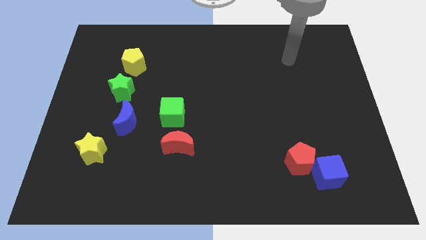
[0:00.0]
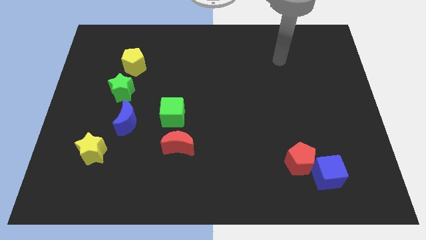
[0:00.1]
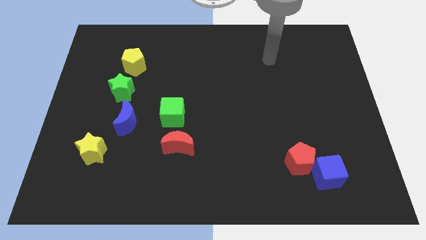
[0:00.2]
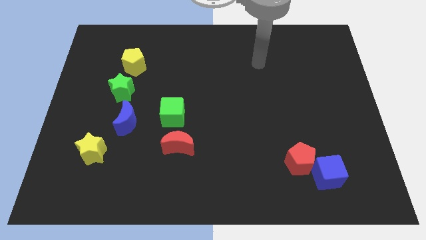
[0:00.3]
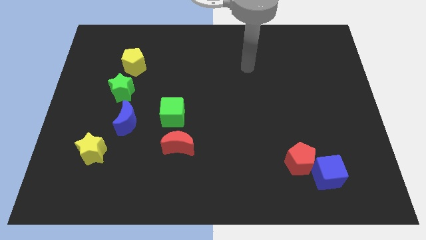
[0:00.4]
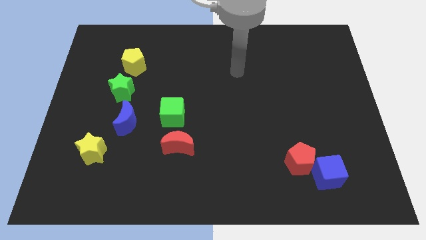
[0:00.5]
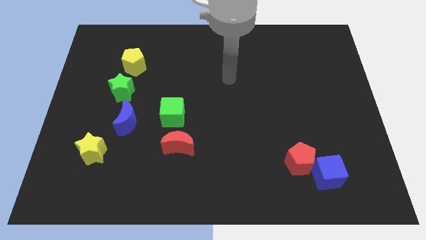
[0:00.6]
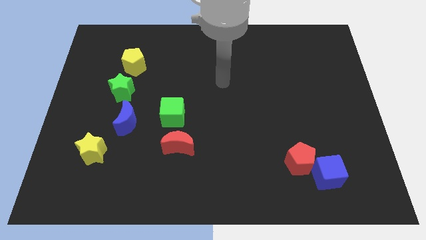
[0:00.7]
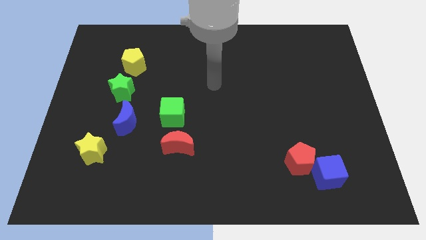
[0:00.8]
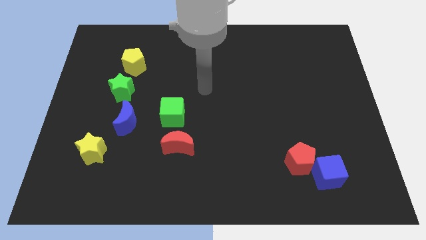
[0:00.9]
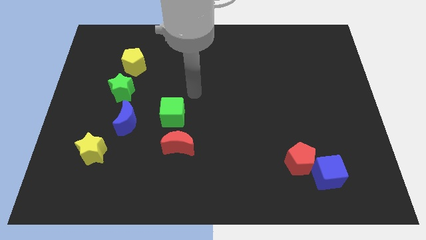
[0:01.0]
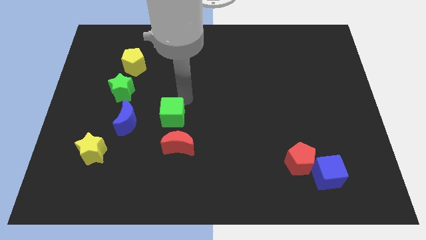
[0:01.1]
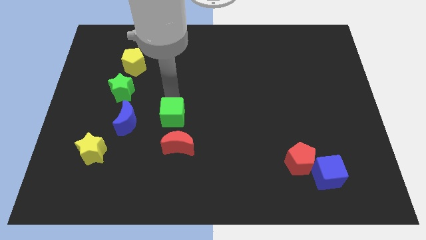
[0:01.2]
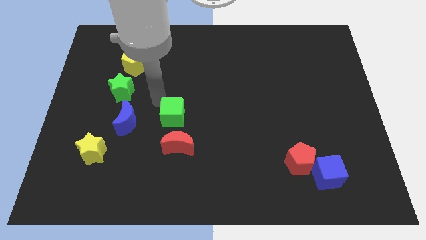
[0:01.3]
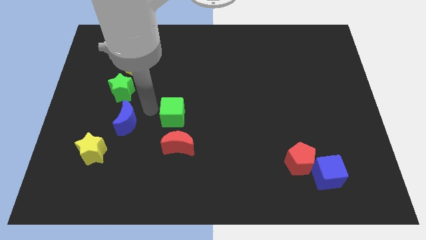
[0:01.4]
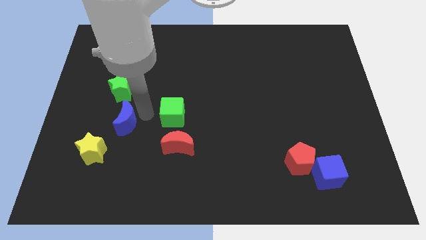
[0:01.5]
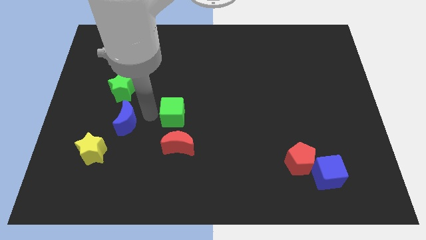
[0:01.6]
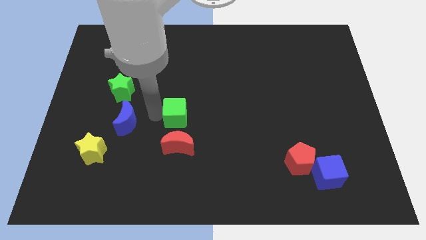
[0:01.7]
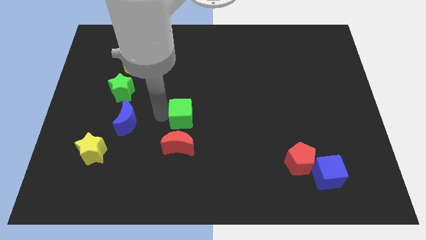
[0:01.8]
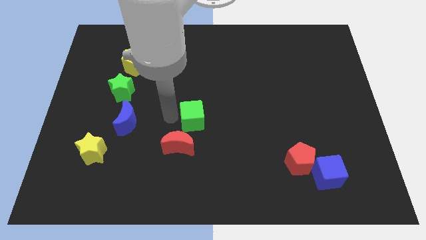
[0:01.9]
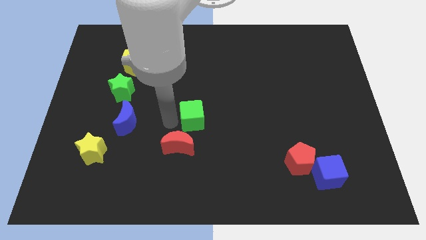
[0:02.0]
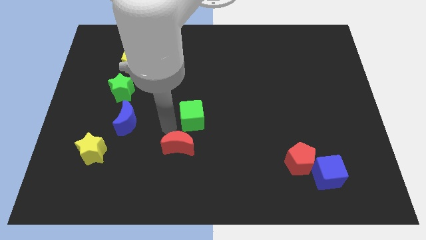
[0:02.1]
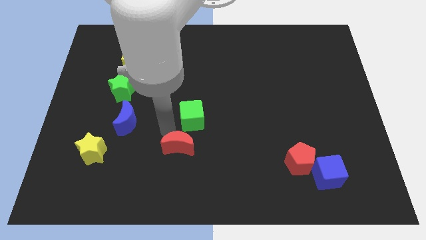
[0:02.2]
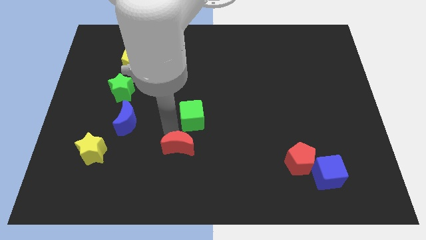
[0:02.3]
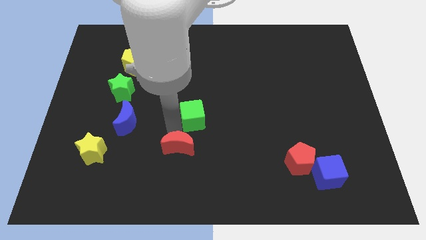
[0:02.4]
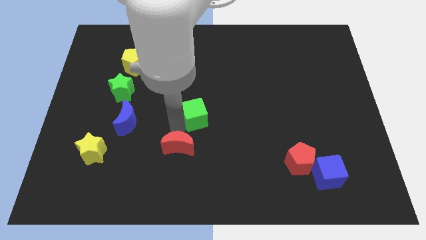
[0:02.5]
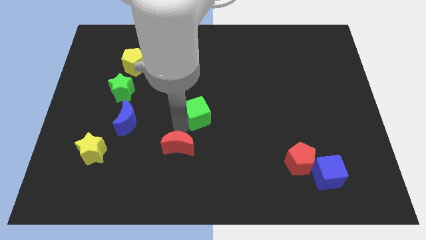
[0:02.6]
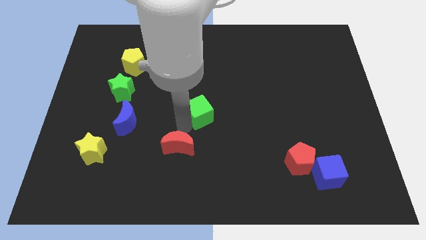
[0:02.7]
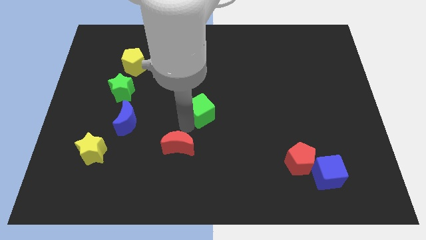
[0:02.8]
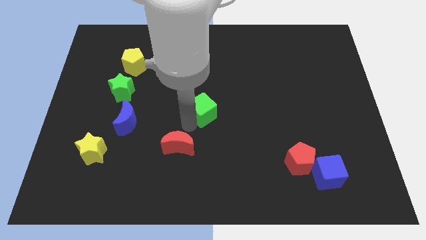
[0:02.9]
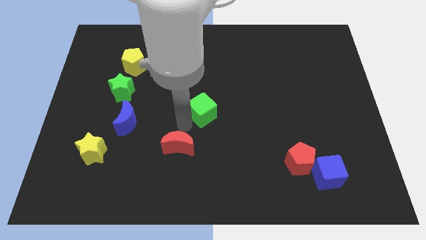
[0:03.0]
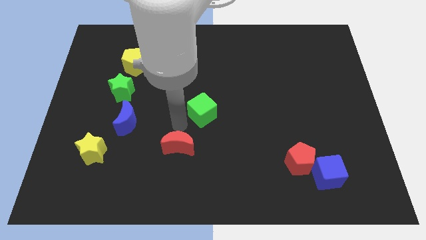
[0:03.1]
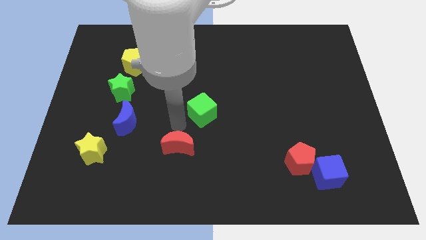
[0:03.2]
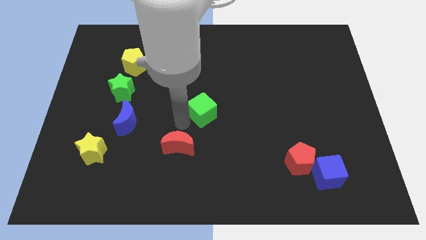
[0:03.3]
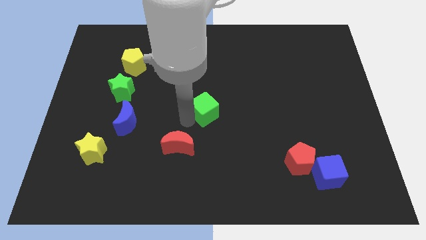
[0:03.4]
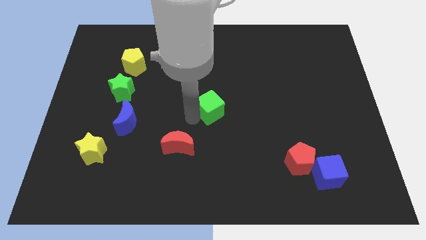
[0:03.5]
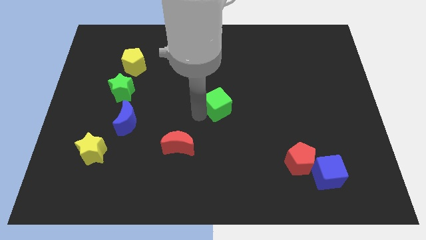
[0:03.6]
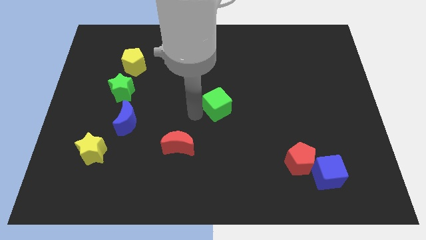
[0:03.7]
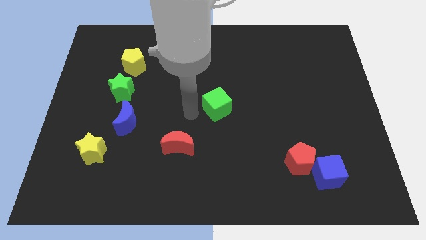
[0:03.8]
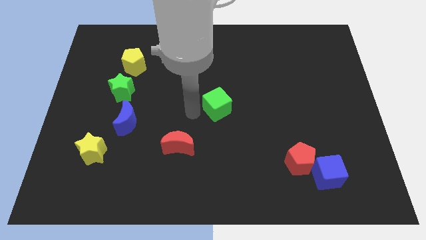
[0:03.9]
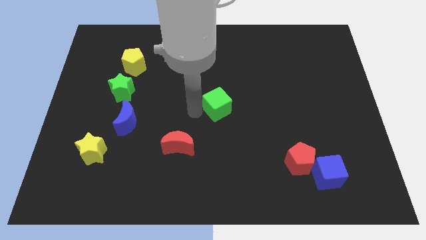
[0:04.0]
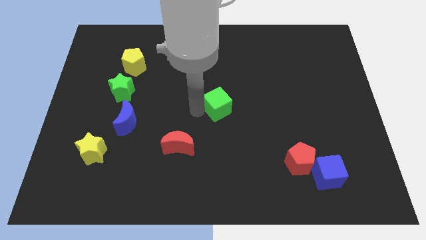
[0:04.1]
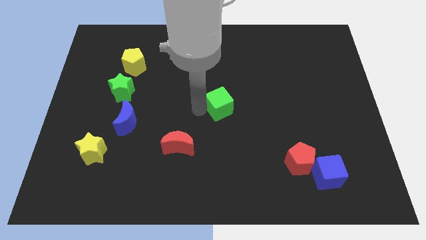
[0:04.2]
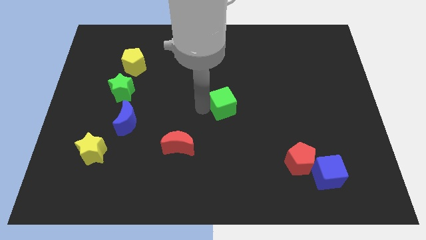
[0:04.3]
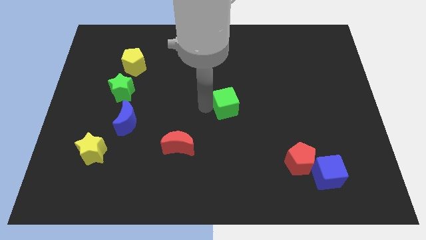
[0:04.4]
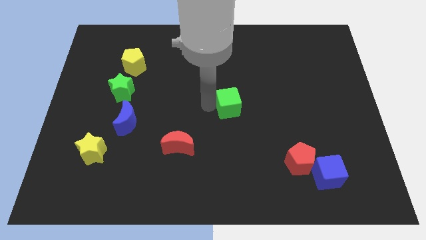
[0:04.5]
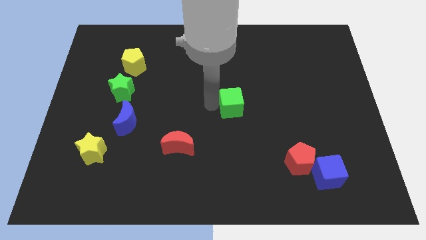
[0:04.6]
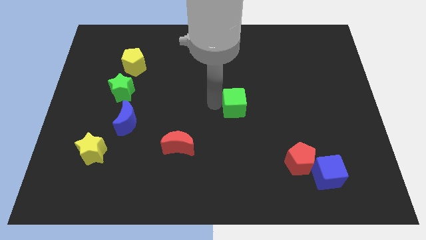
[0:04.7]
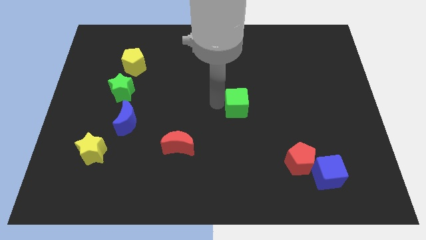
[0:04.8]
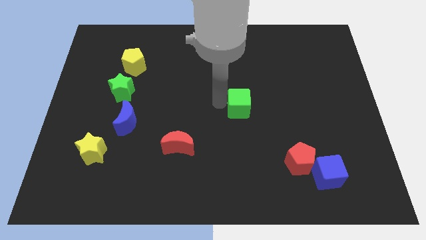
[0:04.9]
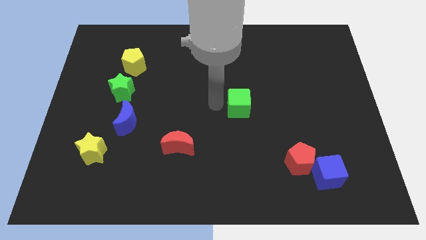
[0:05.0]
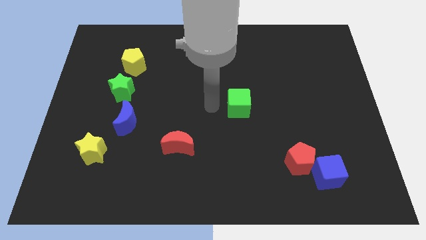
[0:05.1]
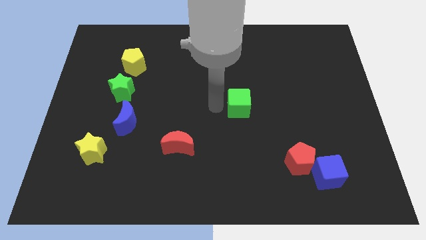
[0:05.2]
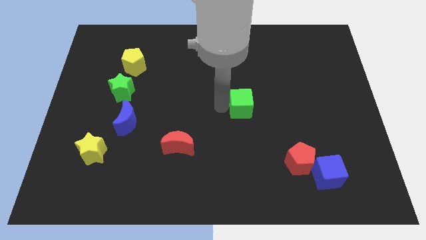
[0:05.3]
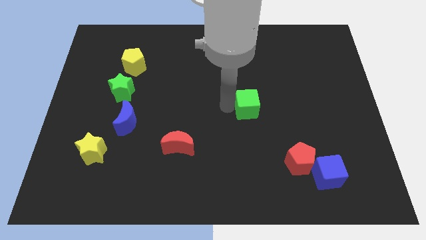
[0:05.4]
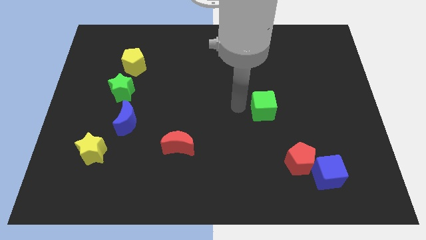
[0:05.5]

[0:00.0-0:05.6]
slide the green cube to the right

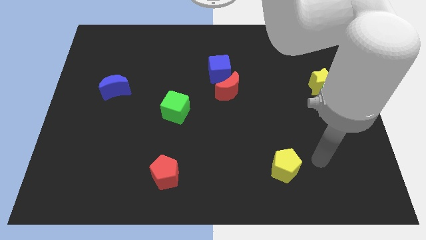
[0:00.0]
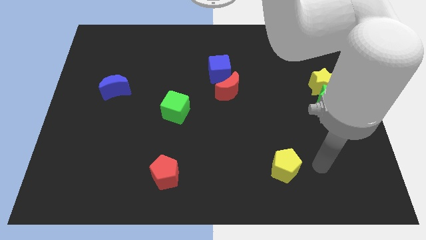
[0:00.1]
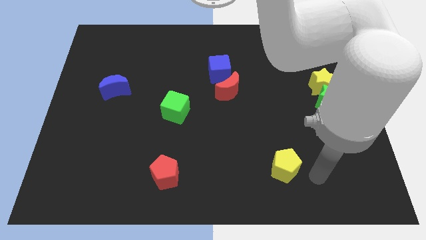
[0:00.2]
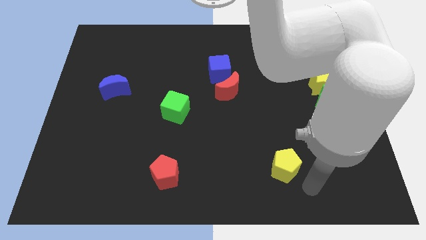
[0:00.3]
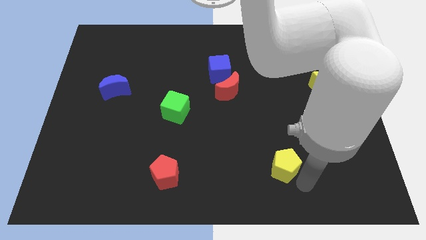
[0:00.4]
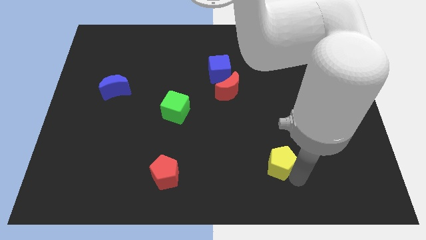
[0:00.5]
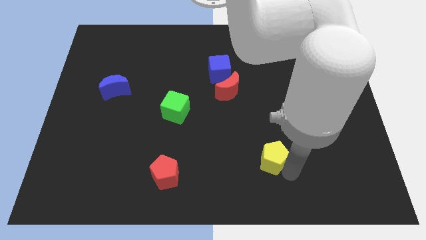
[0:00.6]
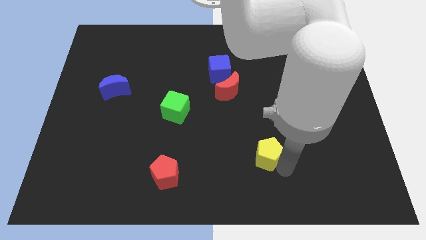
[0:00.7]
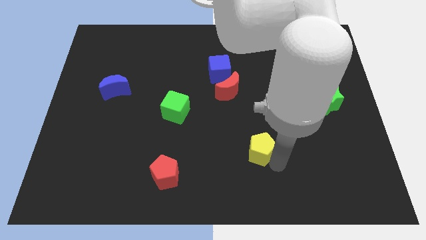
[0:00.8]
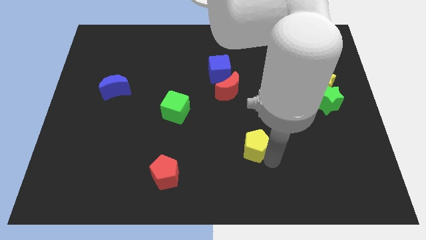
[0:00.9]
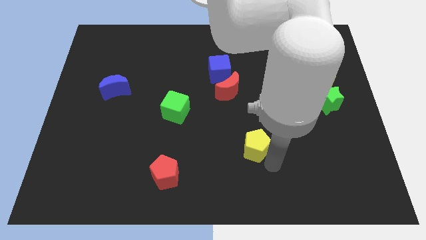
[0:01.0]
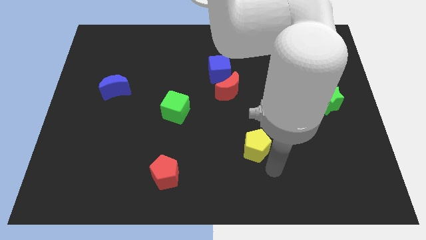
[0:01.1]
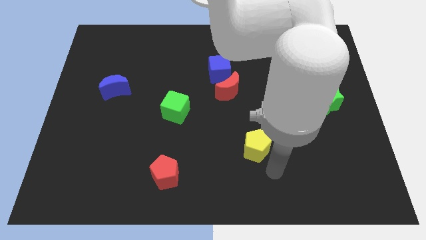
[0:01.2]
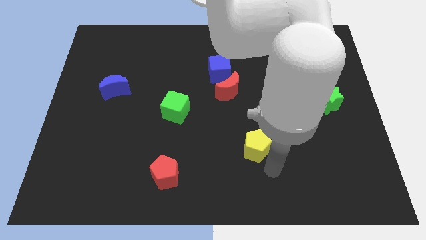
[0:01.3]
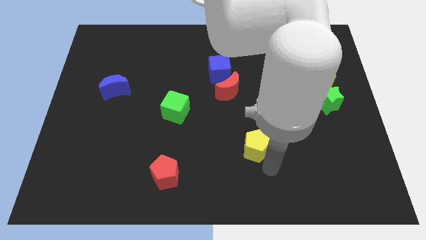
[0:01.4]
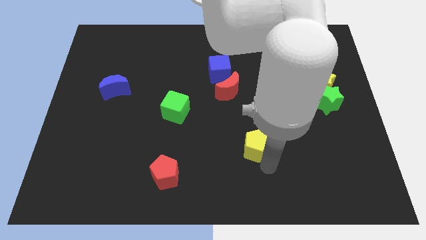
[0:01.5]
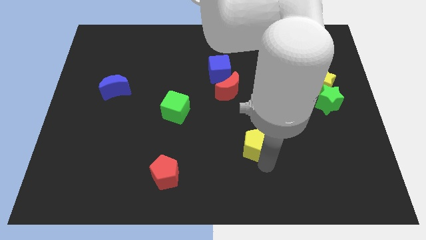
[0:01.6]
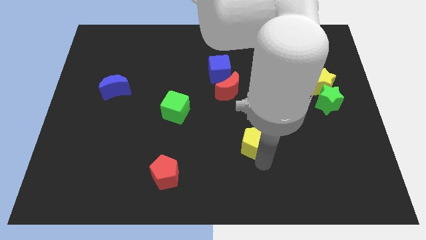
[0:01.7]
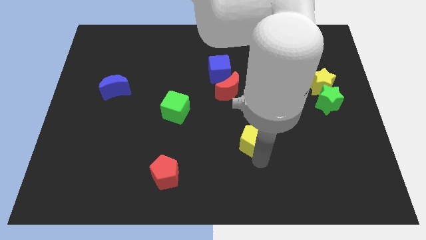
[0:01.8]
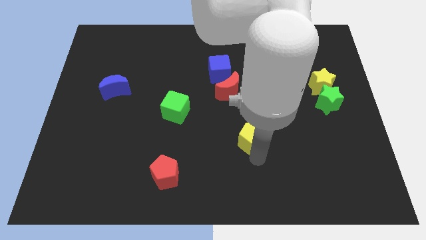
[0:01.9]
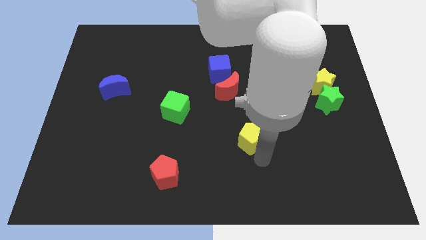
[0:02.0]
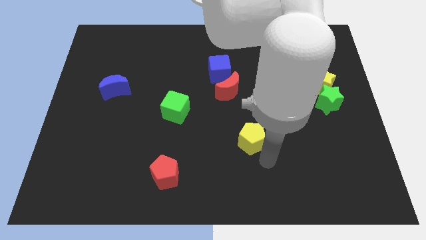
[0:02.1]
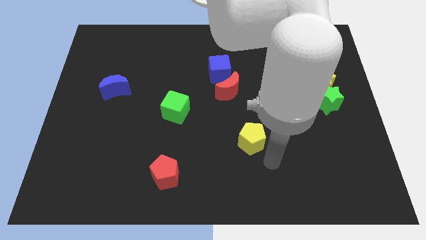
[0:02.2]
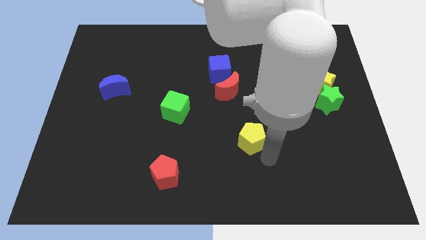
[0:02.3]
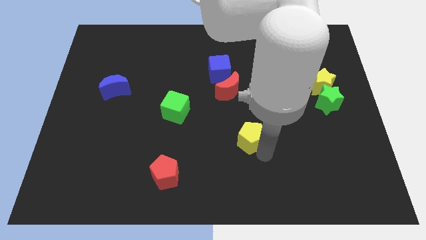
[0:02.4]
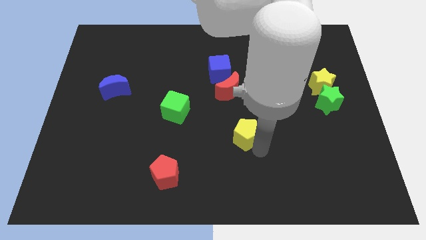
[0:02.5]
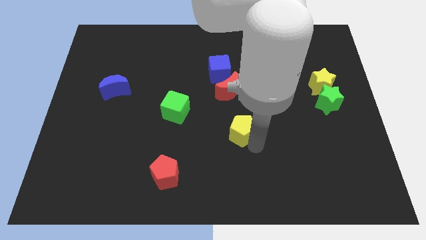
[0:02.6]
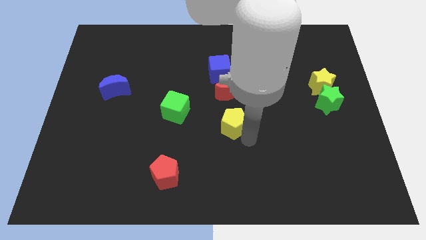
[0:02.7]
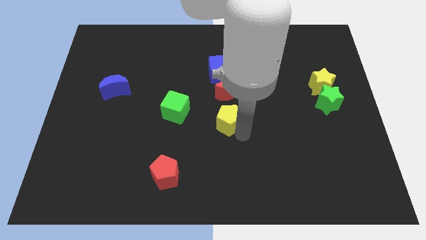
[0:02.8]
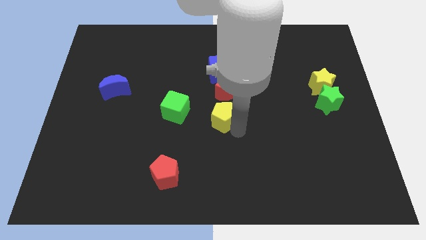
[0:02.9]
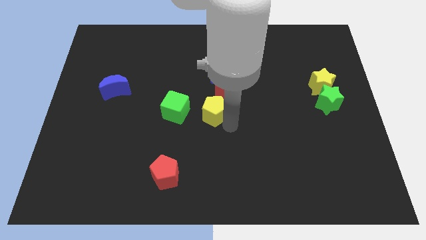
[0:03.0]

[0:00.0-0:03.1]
slide the yellow pentagon up and to the left diagonally
